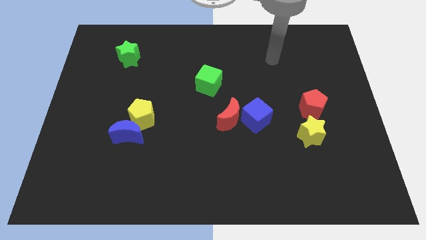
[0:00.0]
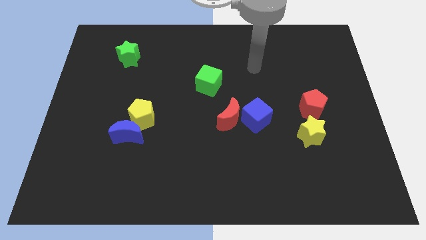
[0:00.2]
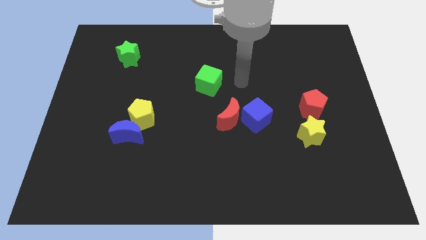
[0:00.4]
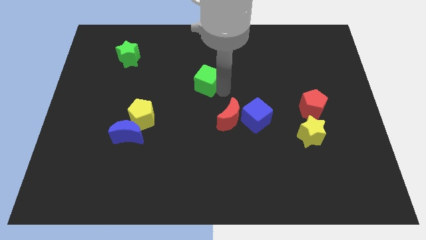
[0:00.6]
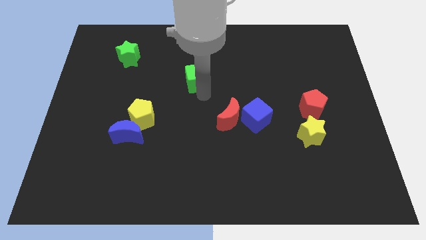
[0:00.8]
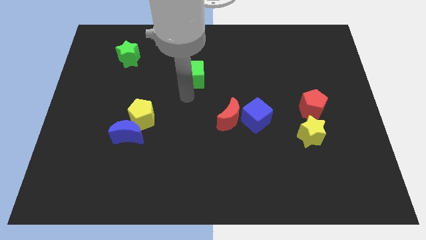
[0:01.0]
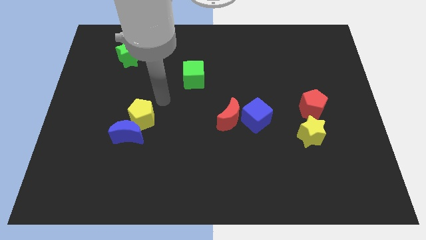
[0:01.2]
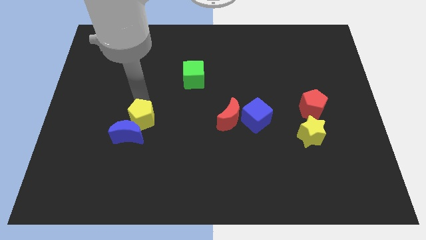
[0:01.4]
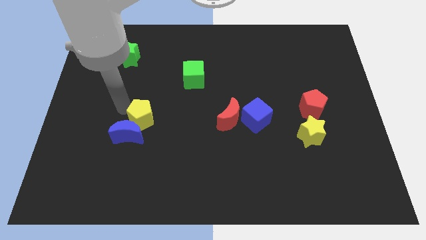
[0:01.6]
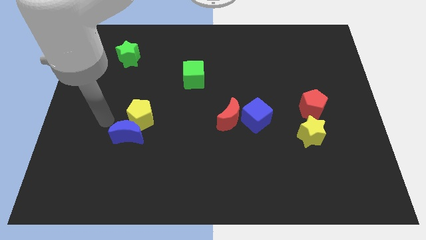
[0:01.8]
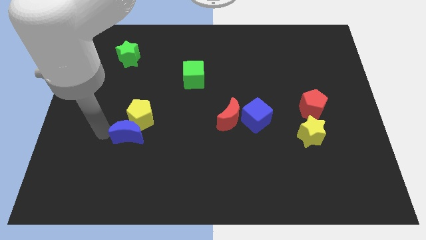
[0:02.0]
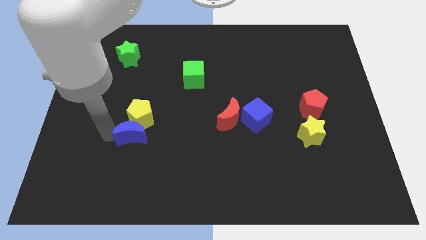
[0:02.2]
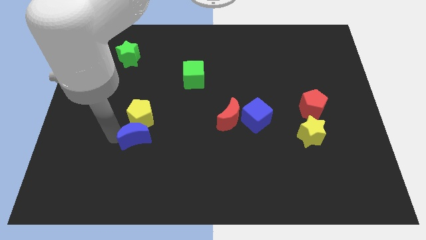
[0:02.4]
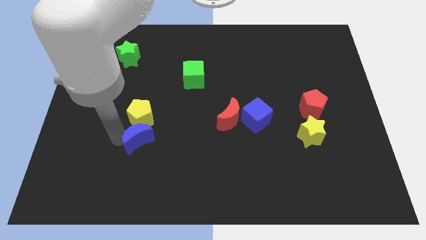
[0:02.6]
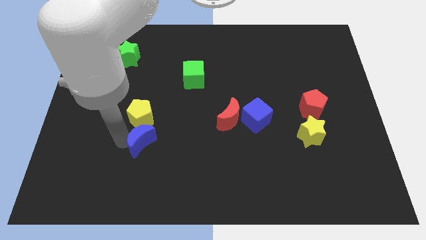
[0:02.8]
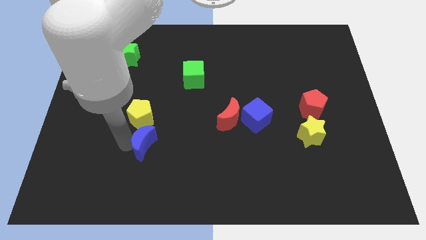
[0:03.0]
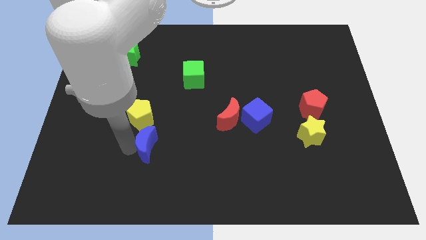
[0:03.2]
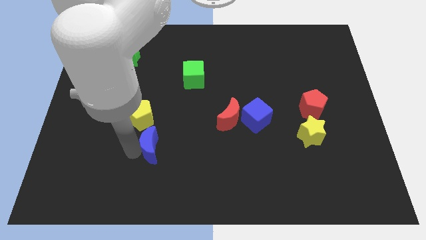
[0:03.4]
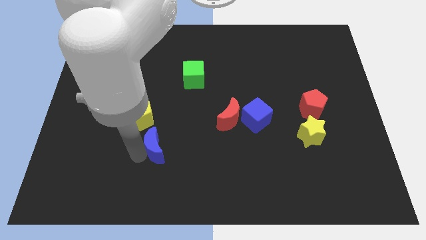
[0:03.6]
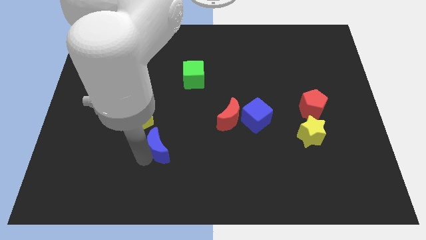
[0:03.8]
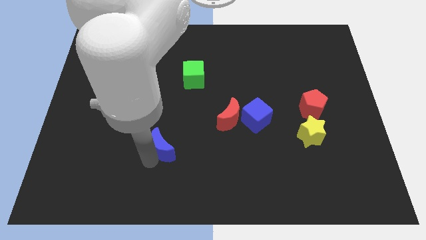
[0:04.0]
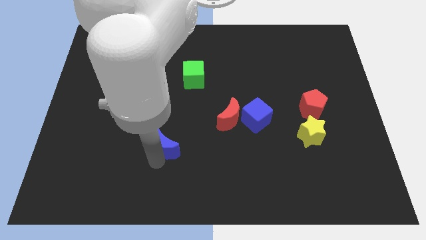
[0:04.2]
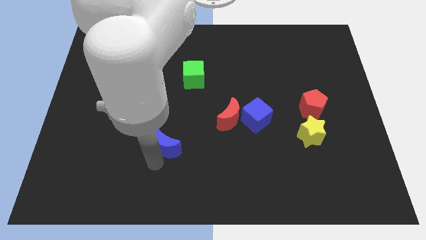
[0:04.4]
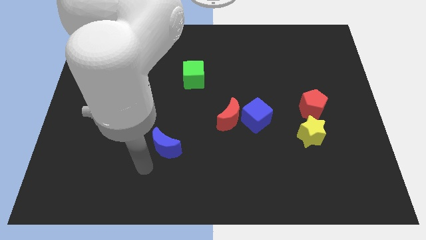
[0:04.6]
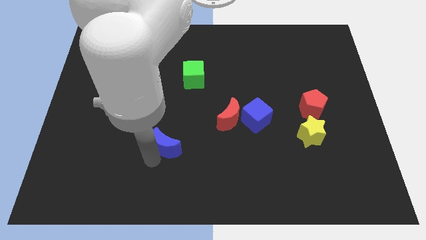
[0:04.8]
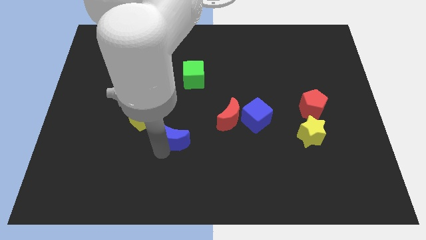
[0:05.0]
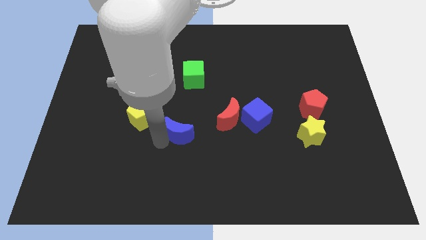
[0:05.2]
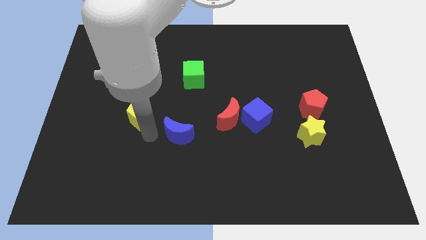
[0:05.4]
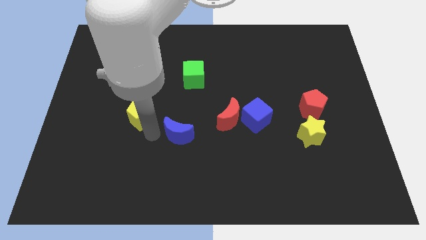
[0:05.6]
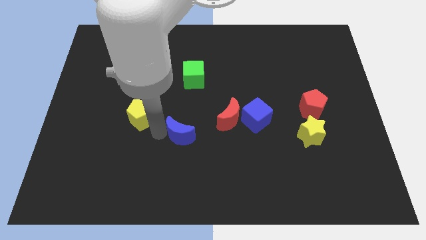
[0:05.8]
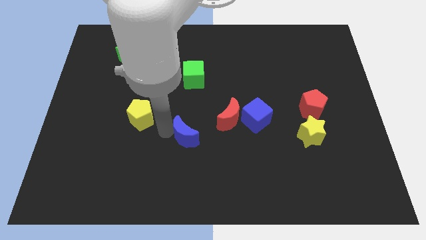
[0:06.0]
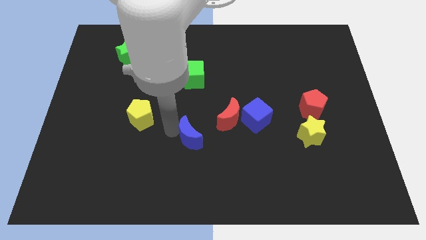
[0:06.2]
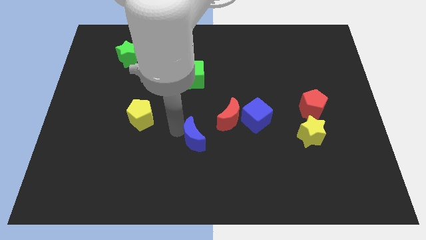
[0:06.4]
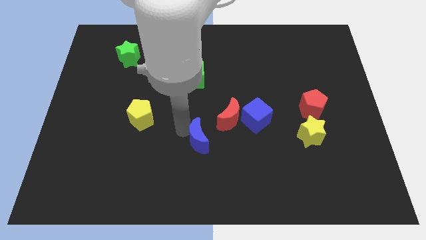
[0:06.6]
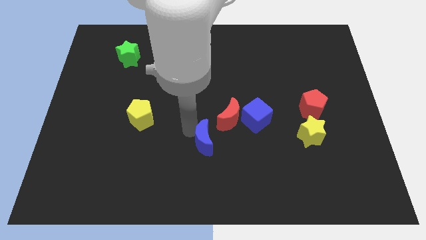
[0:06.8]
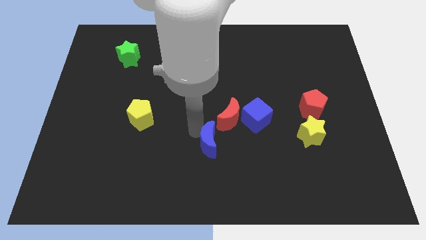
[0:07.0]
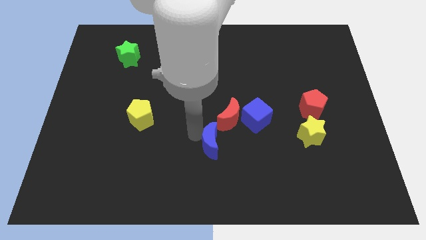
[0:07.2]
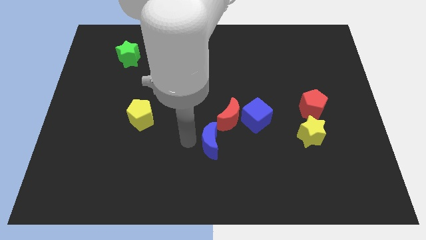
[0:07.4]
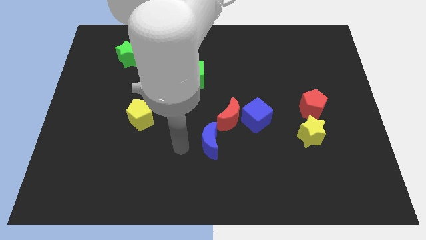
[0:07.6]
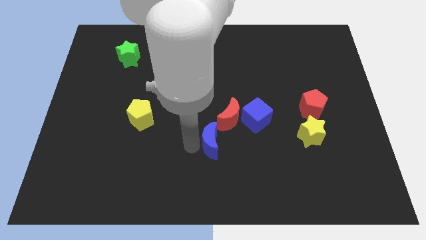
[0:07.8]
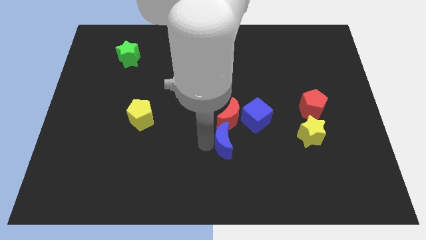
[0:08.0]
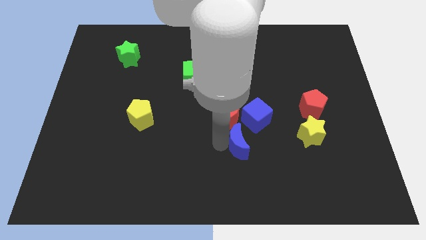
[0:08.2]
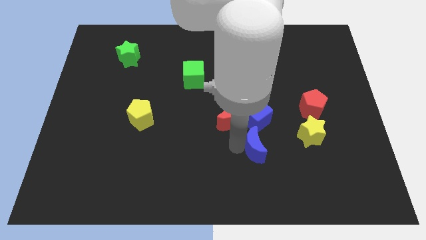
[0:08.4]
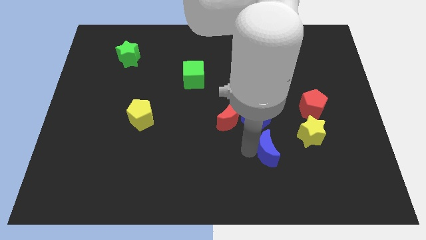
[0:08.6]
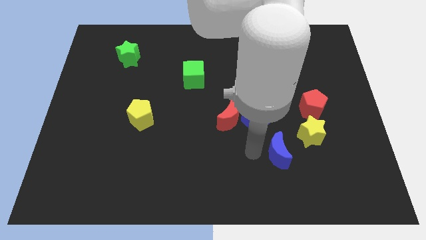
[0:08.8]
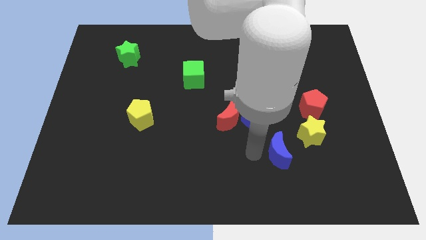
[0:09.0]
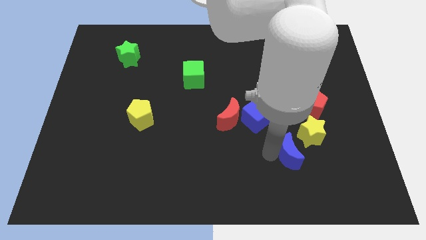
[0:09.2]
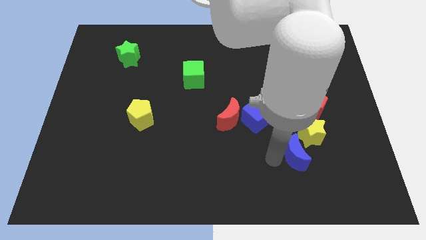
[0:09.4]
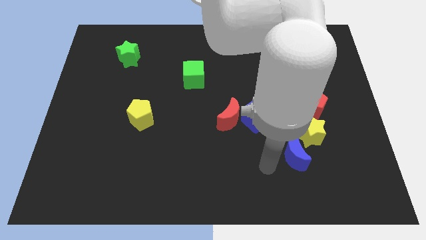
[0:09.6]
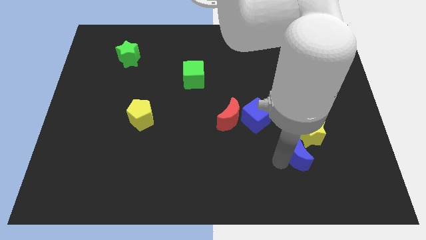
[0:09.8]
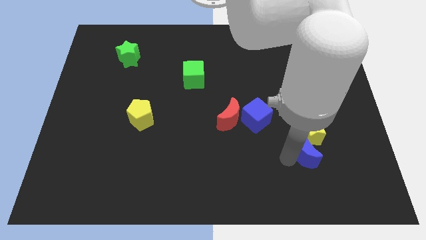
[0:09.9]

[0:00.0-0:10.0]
push the blue moon to the bottom of the red pentagon

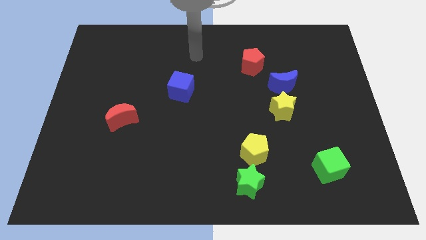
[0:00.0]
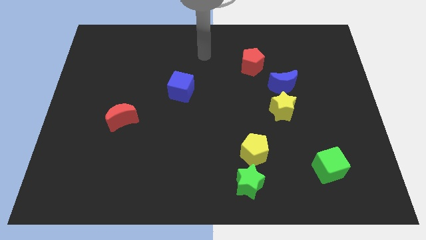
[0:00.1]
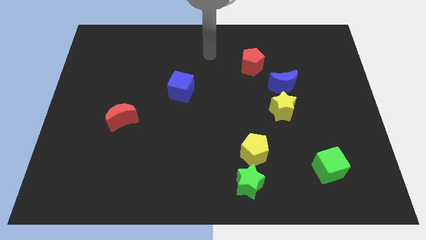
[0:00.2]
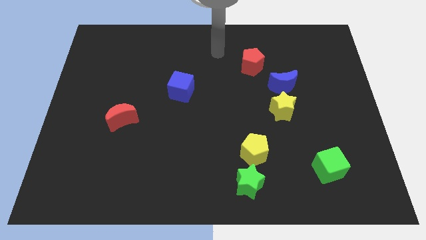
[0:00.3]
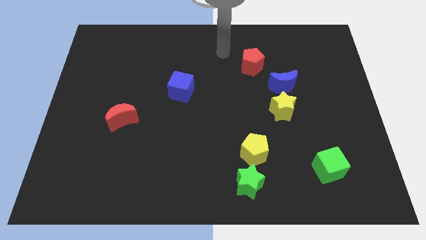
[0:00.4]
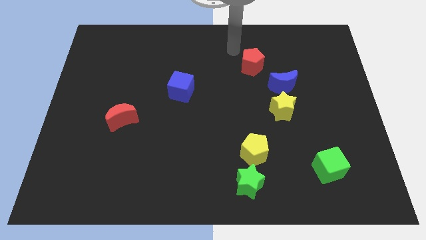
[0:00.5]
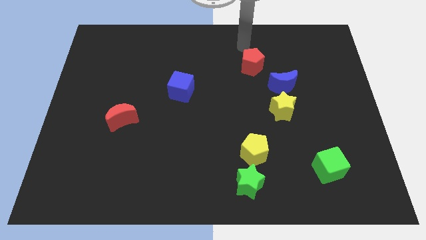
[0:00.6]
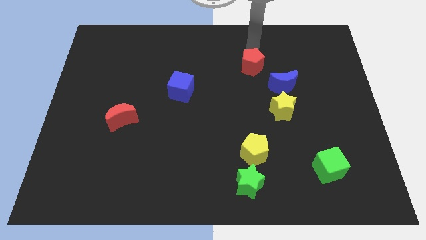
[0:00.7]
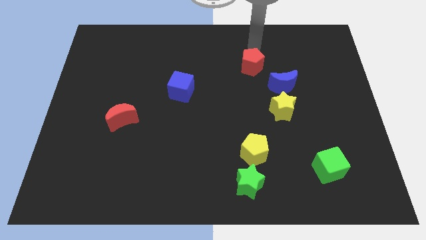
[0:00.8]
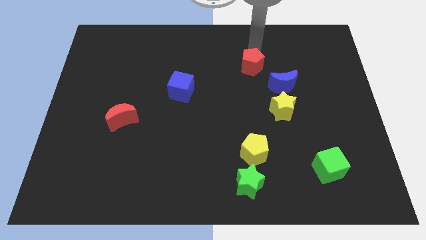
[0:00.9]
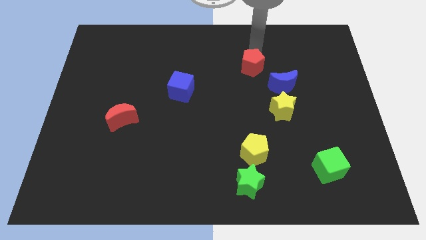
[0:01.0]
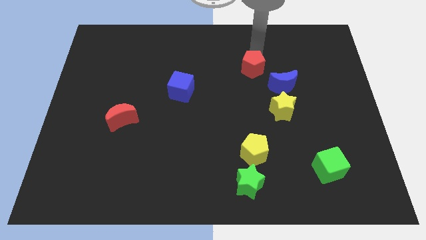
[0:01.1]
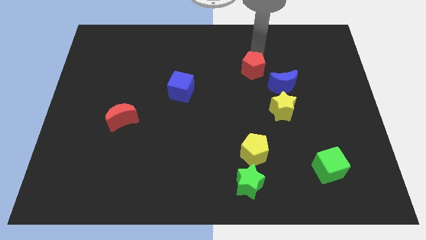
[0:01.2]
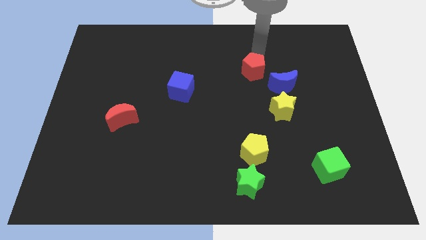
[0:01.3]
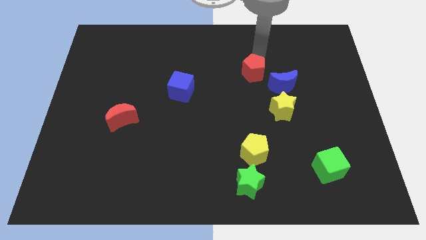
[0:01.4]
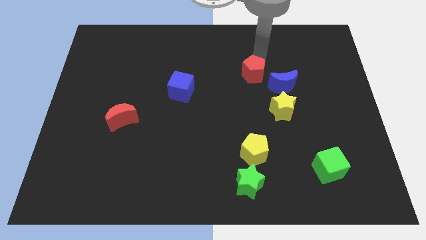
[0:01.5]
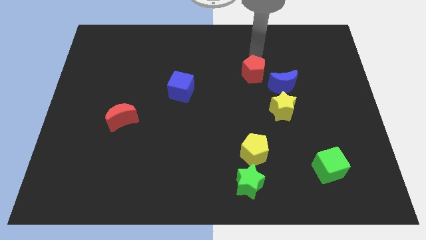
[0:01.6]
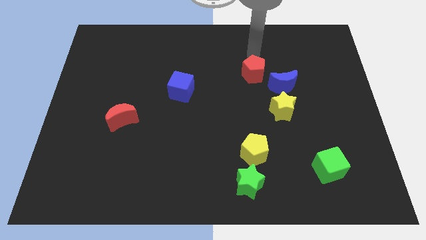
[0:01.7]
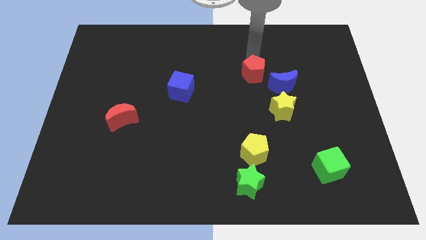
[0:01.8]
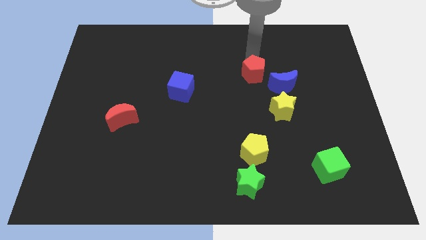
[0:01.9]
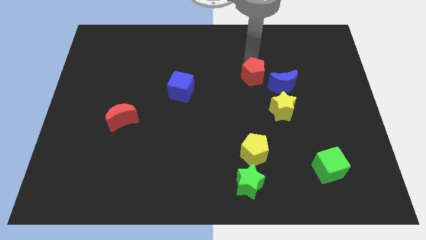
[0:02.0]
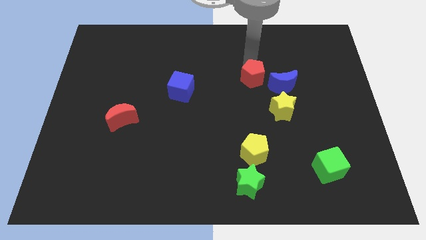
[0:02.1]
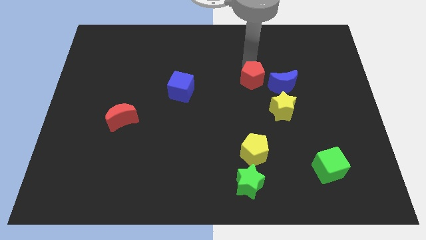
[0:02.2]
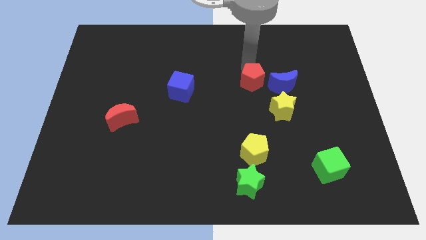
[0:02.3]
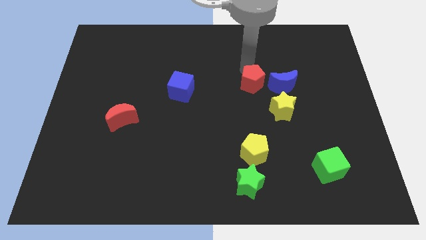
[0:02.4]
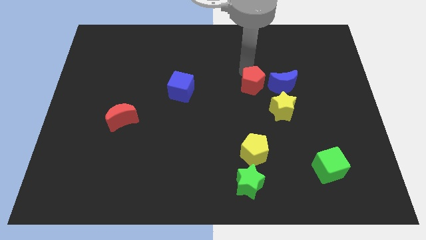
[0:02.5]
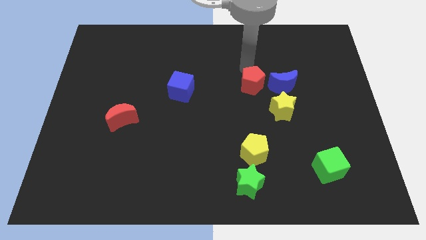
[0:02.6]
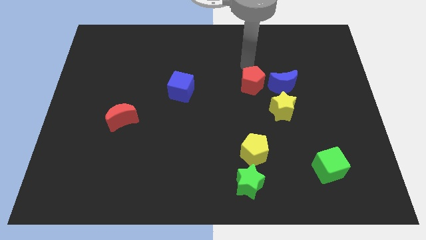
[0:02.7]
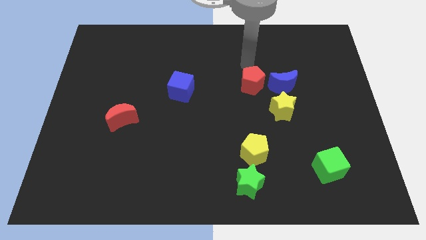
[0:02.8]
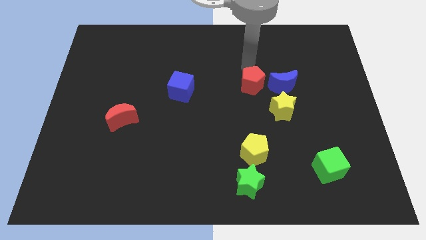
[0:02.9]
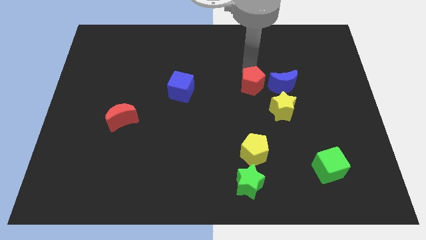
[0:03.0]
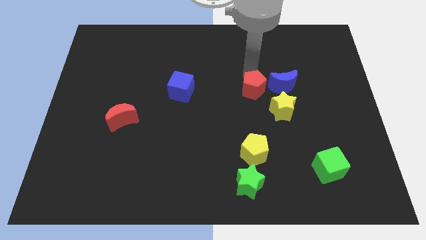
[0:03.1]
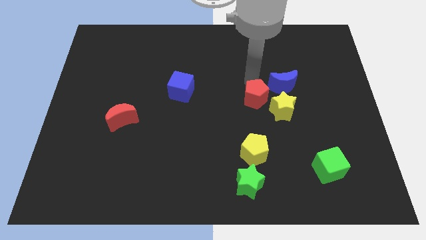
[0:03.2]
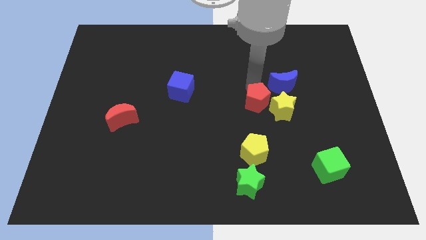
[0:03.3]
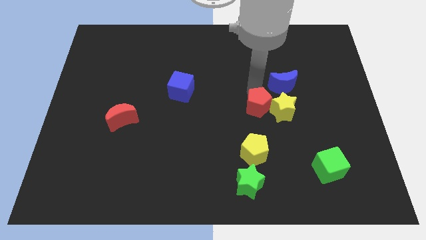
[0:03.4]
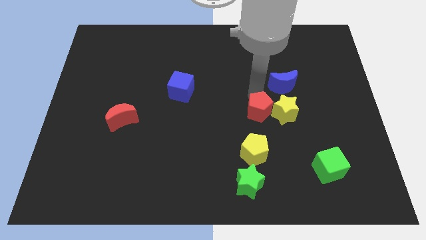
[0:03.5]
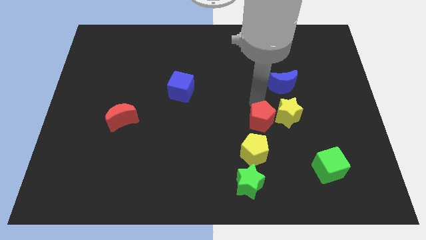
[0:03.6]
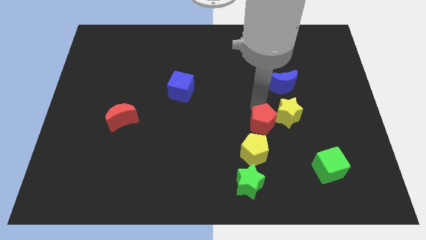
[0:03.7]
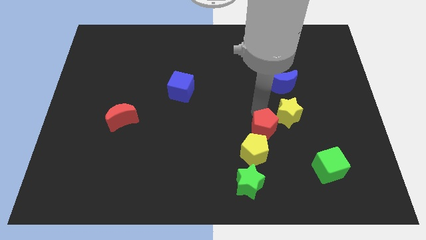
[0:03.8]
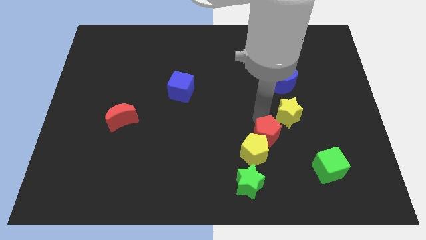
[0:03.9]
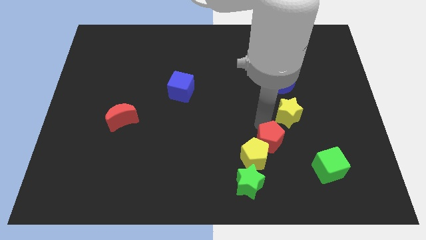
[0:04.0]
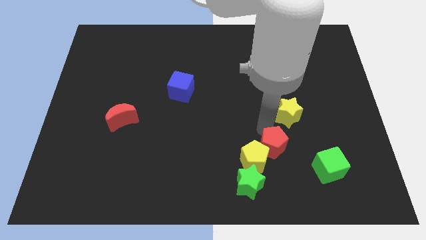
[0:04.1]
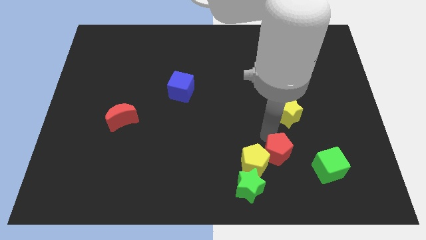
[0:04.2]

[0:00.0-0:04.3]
move the red pentagon to the left of the green cube
